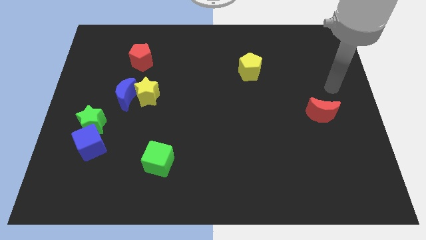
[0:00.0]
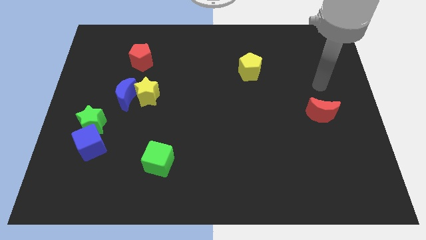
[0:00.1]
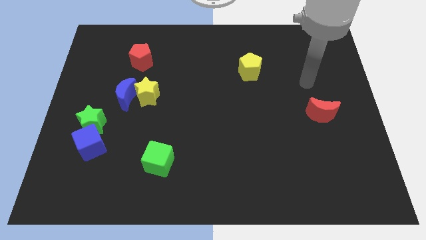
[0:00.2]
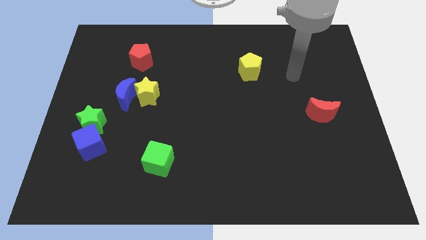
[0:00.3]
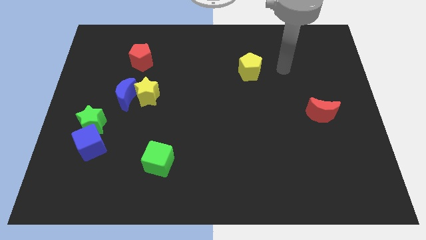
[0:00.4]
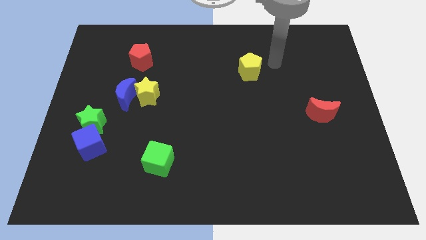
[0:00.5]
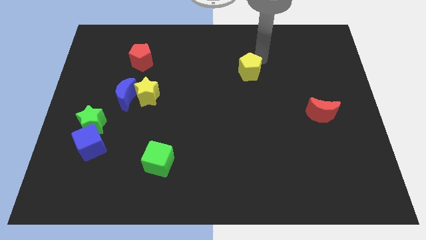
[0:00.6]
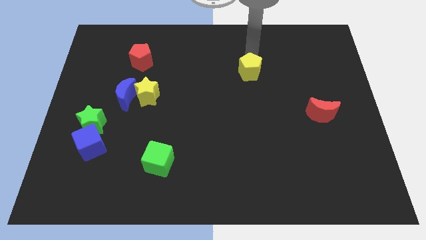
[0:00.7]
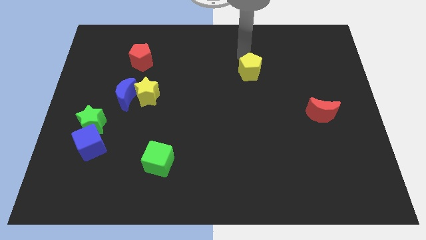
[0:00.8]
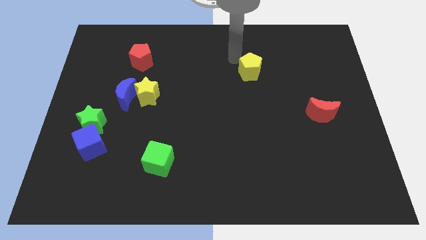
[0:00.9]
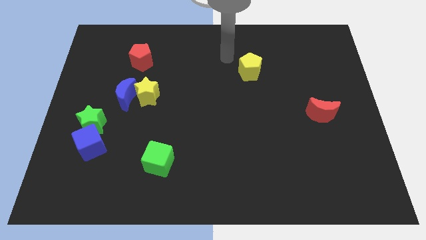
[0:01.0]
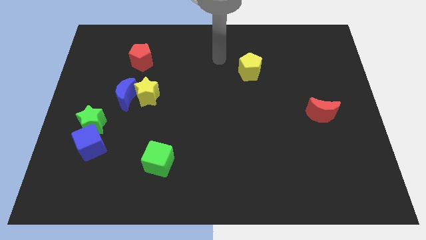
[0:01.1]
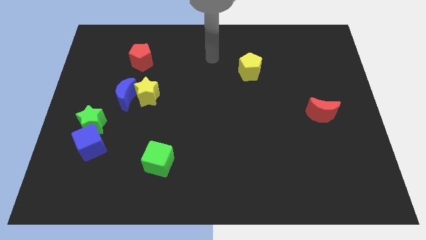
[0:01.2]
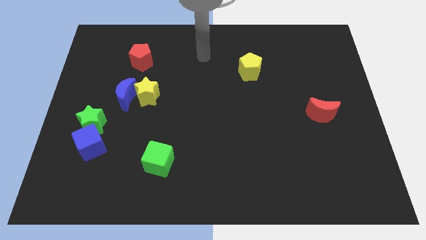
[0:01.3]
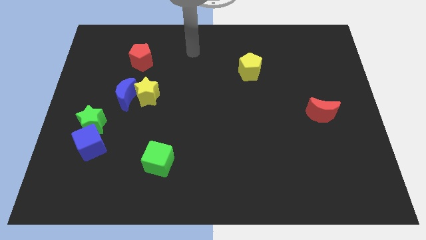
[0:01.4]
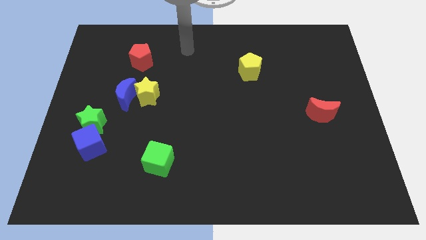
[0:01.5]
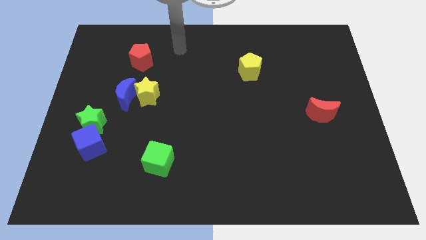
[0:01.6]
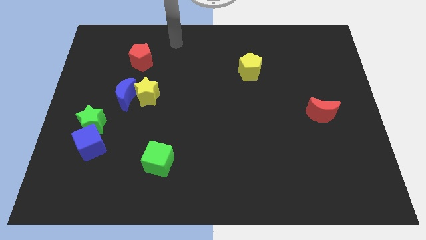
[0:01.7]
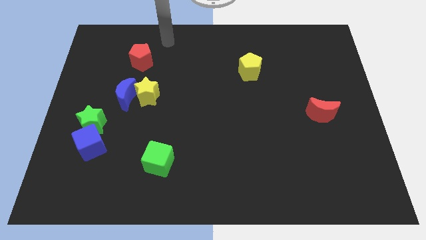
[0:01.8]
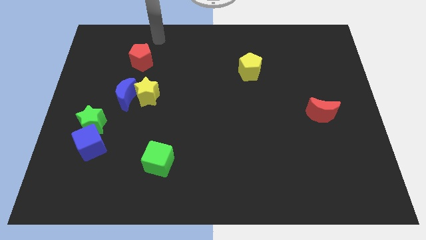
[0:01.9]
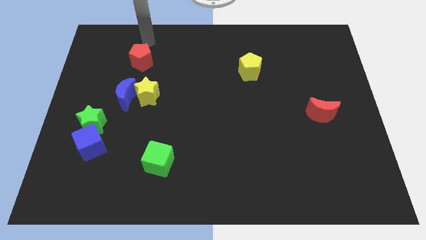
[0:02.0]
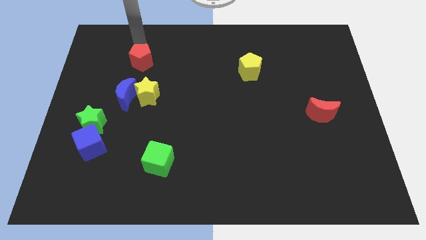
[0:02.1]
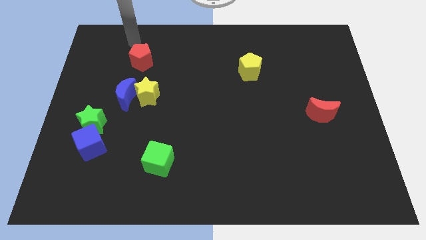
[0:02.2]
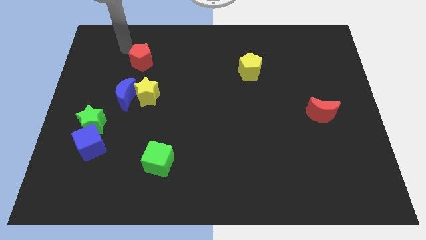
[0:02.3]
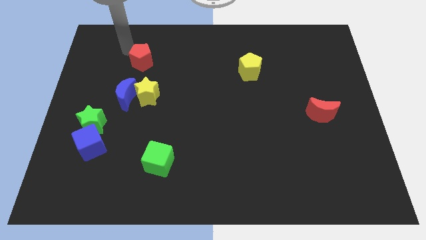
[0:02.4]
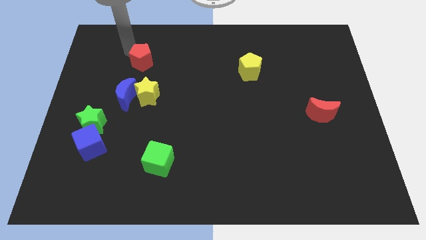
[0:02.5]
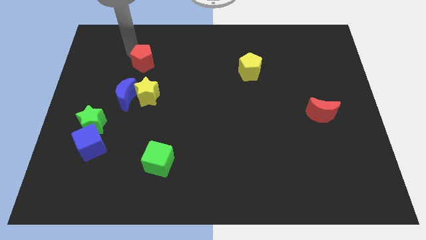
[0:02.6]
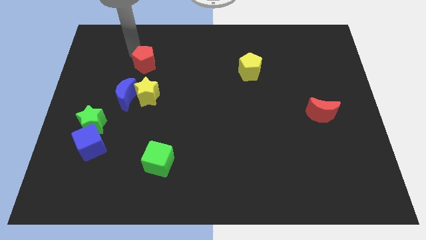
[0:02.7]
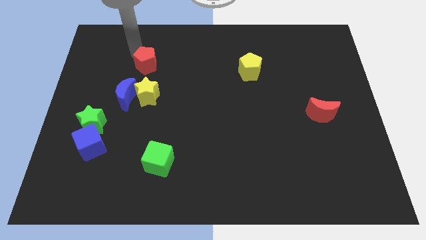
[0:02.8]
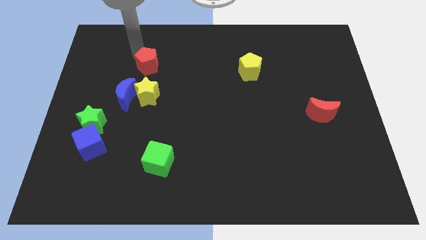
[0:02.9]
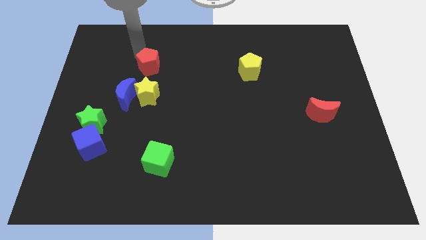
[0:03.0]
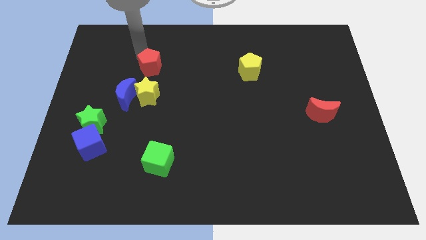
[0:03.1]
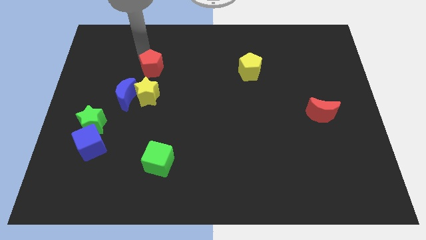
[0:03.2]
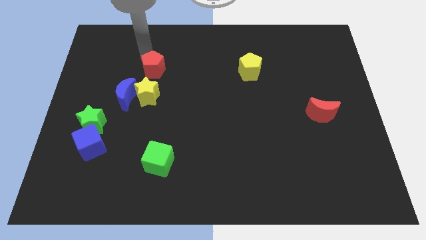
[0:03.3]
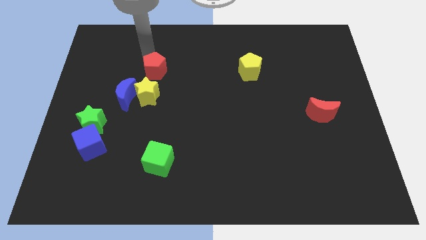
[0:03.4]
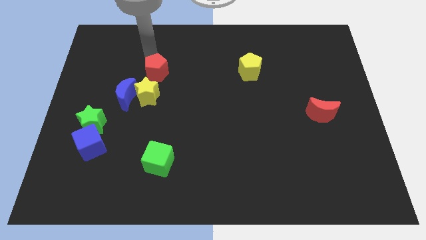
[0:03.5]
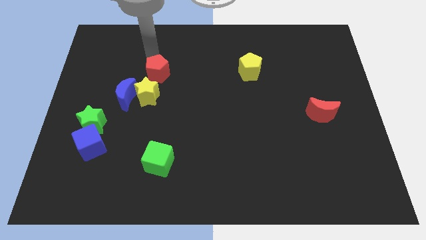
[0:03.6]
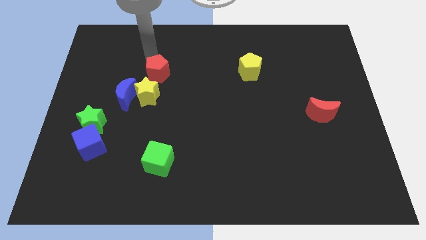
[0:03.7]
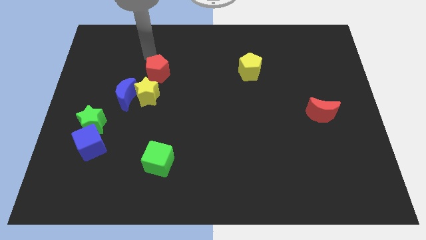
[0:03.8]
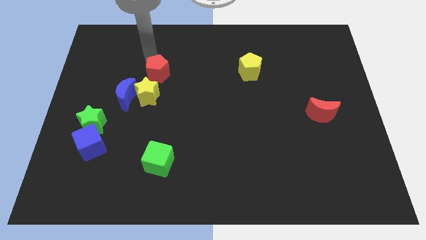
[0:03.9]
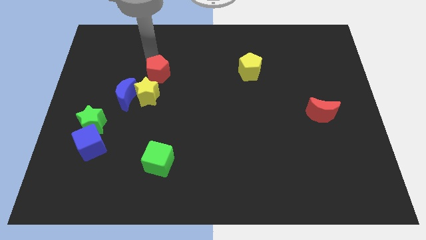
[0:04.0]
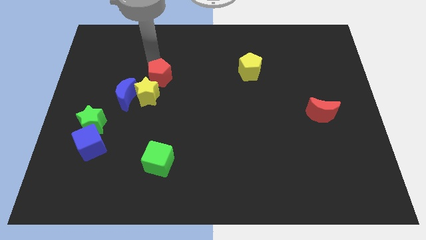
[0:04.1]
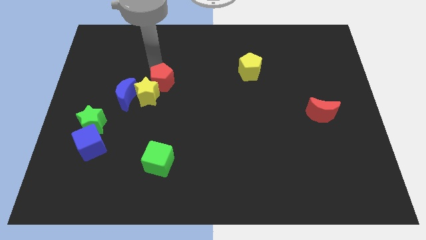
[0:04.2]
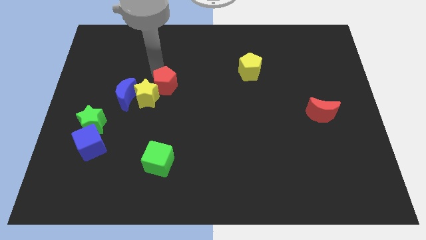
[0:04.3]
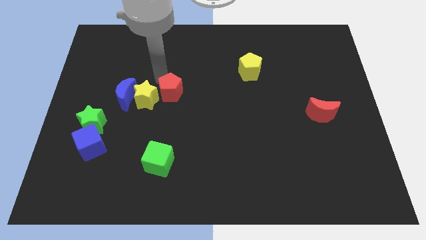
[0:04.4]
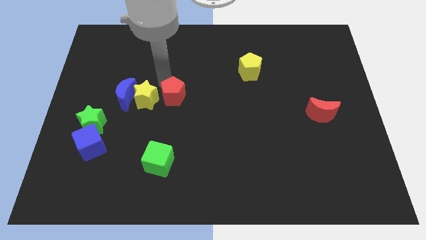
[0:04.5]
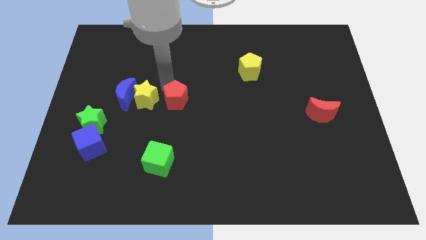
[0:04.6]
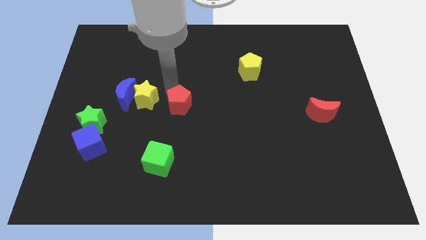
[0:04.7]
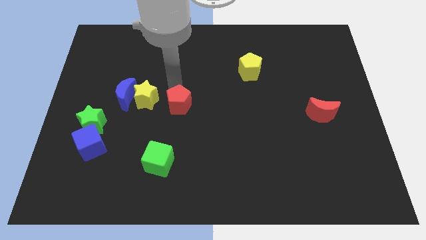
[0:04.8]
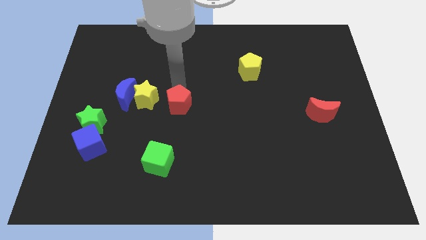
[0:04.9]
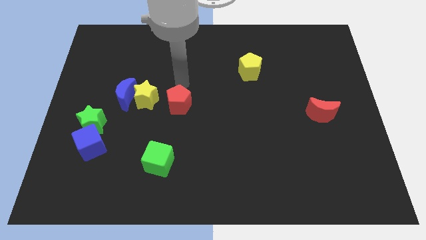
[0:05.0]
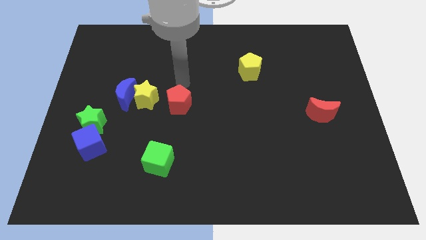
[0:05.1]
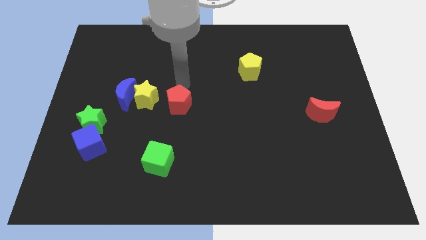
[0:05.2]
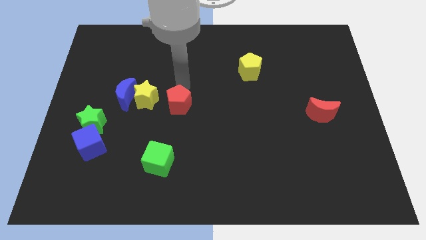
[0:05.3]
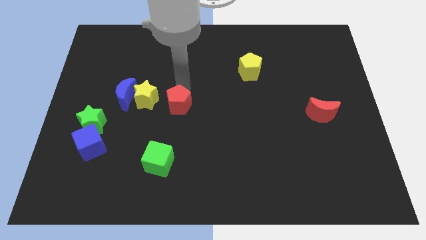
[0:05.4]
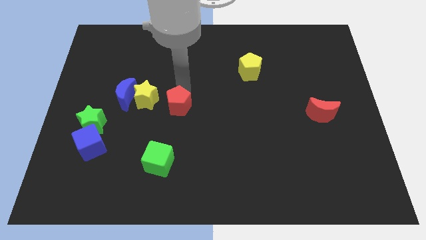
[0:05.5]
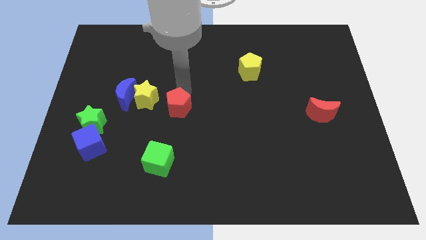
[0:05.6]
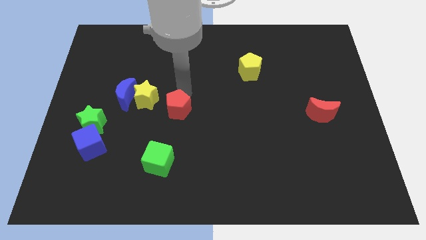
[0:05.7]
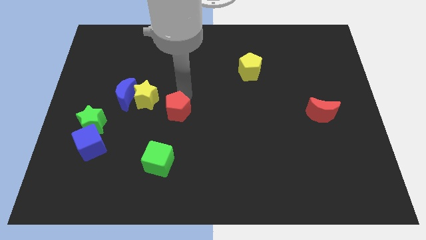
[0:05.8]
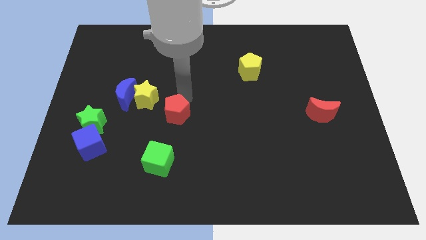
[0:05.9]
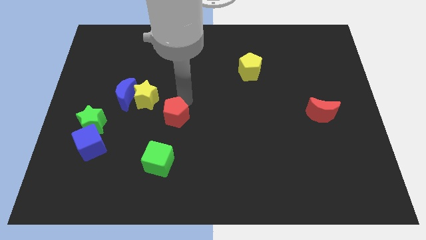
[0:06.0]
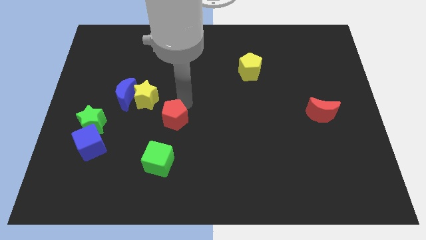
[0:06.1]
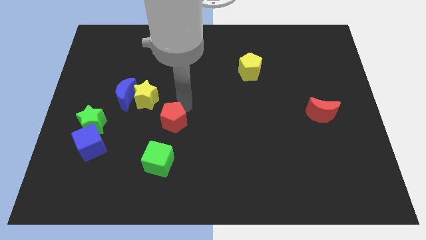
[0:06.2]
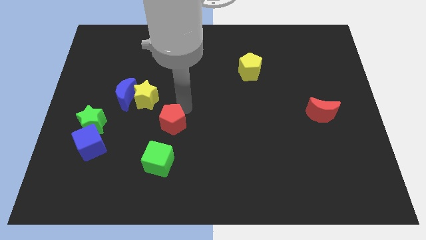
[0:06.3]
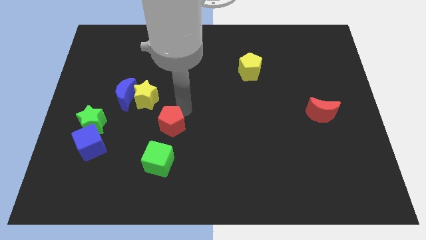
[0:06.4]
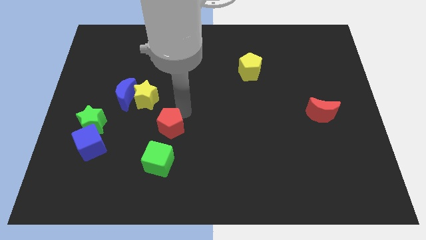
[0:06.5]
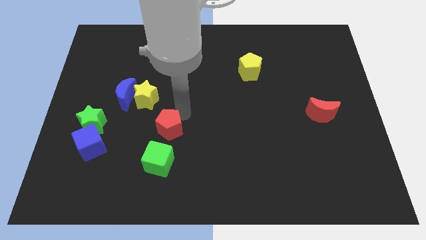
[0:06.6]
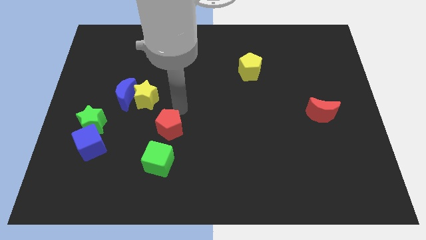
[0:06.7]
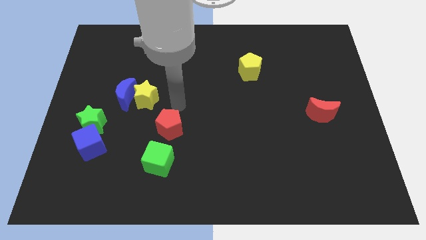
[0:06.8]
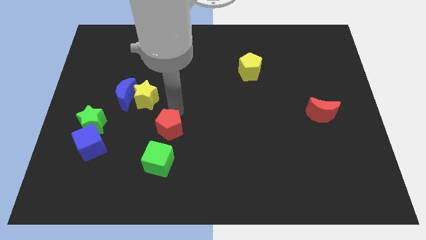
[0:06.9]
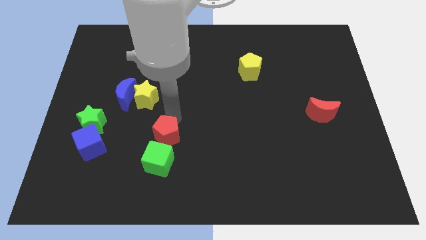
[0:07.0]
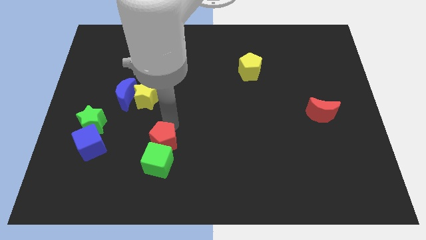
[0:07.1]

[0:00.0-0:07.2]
push the red pentagon to the green cube

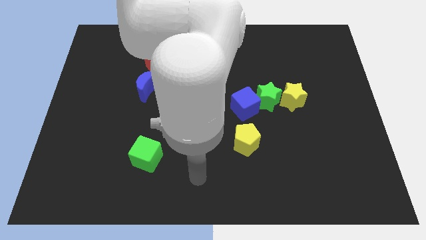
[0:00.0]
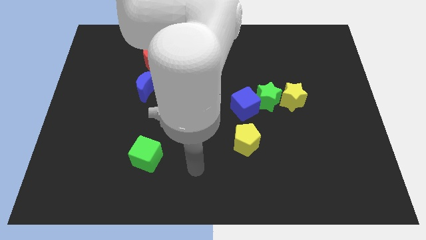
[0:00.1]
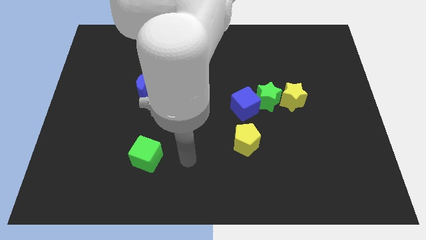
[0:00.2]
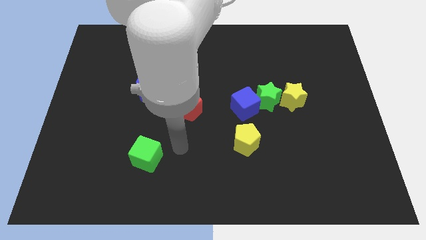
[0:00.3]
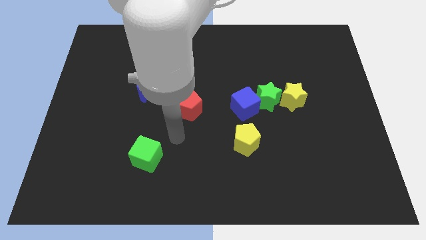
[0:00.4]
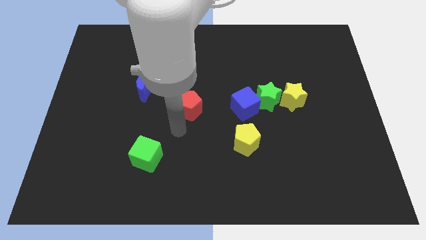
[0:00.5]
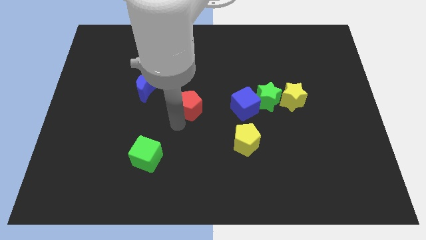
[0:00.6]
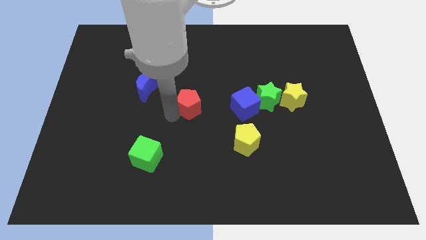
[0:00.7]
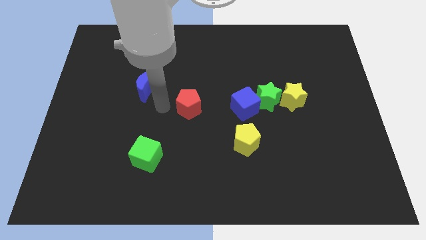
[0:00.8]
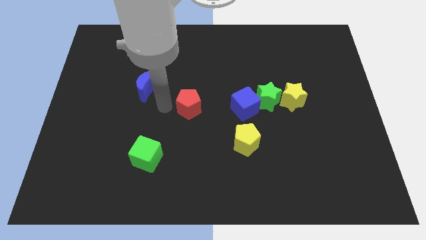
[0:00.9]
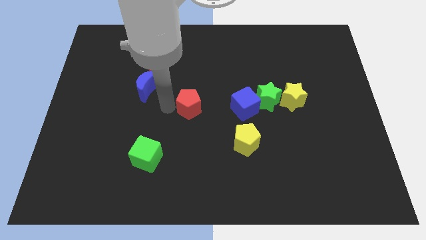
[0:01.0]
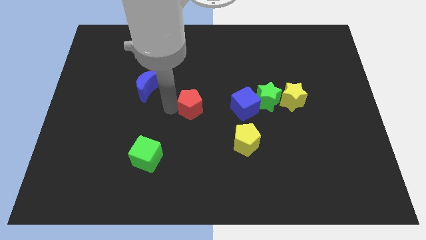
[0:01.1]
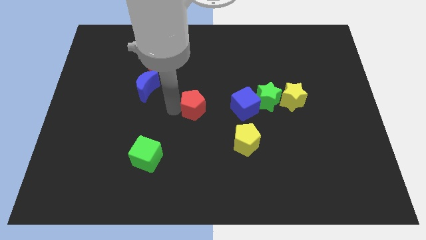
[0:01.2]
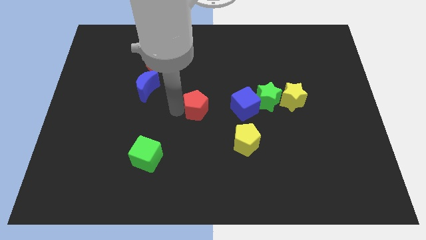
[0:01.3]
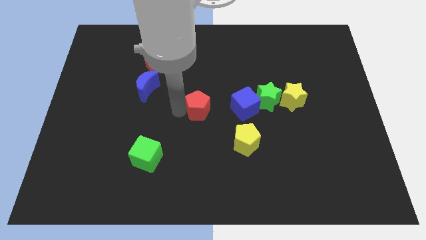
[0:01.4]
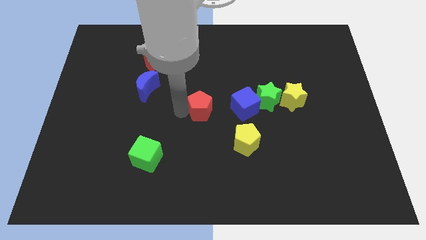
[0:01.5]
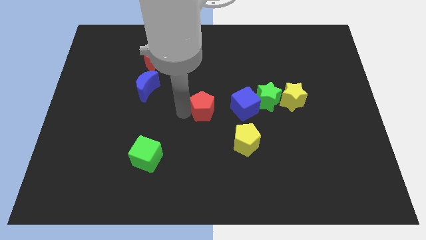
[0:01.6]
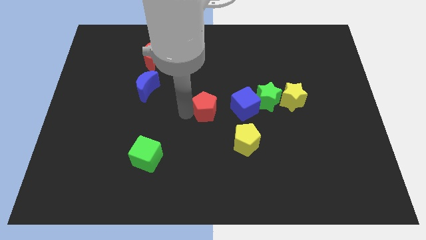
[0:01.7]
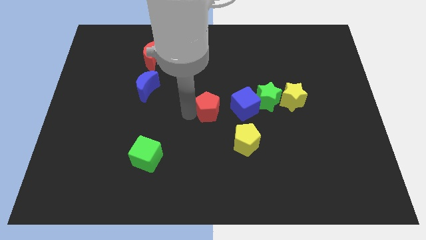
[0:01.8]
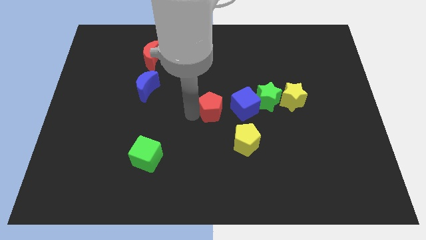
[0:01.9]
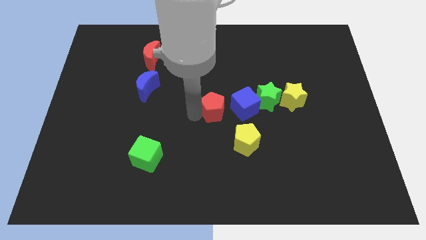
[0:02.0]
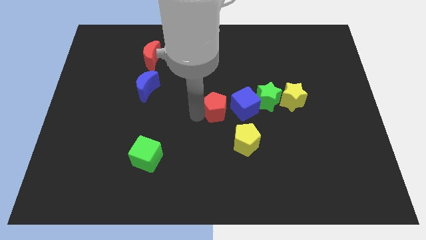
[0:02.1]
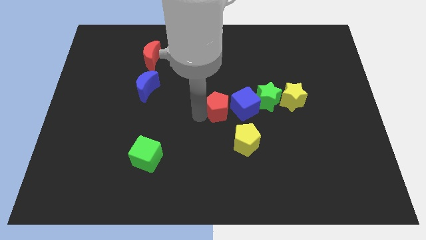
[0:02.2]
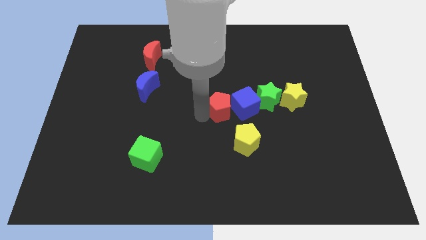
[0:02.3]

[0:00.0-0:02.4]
put the red pentagon to the blue cube
